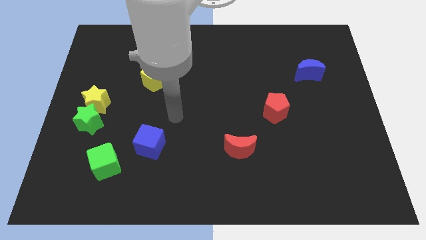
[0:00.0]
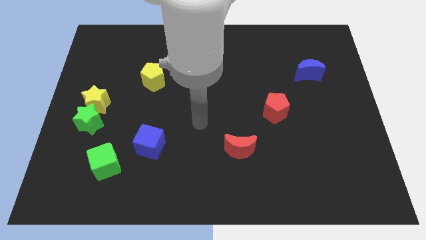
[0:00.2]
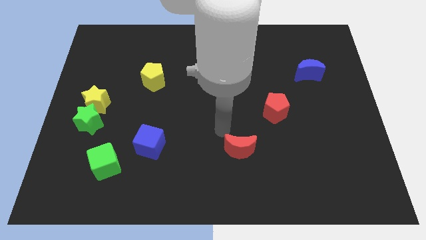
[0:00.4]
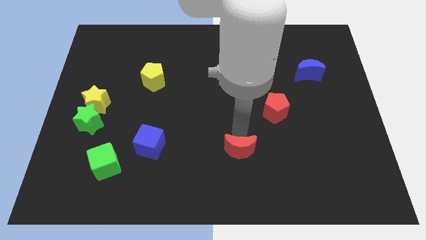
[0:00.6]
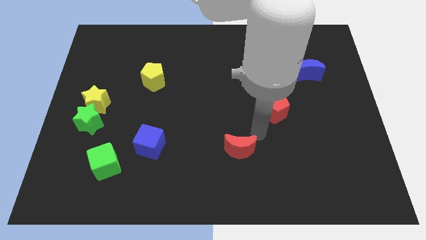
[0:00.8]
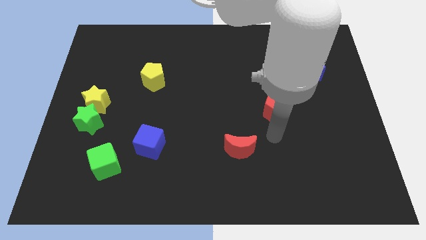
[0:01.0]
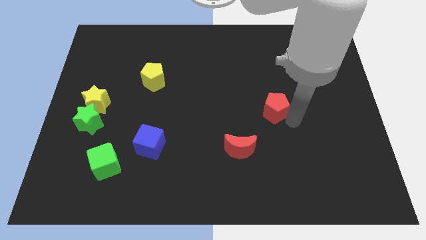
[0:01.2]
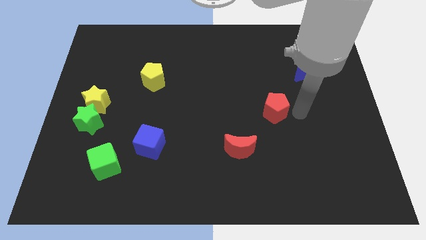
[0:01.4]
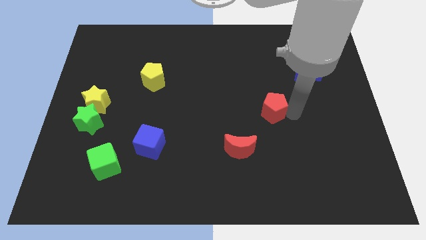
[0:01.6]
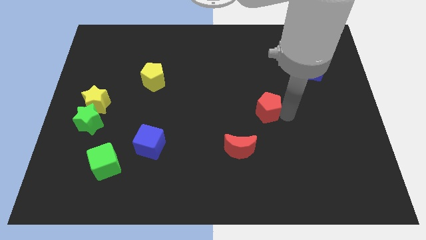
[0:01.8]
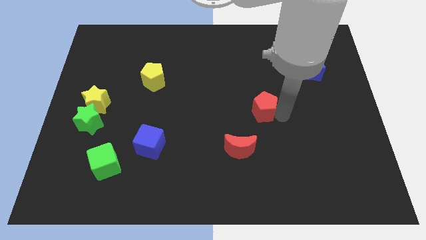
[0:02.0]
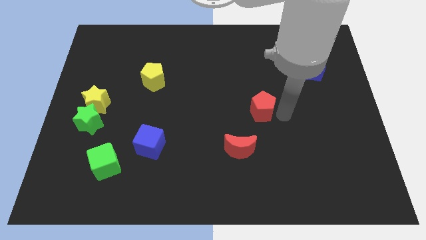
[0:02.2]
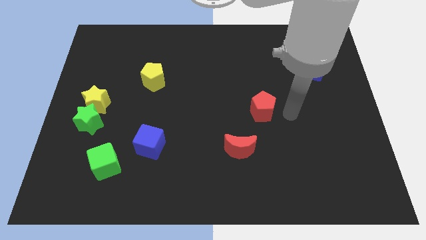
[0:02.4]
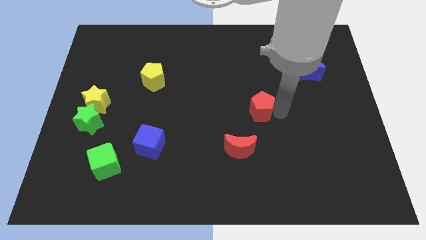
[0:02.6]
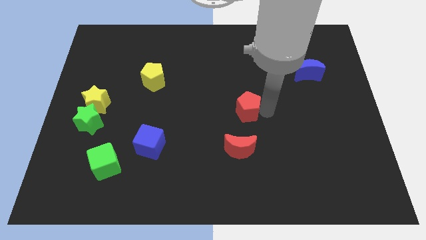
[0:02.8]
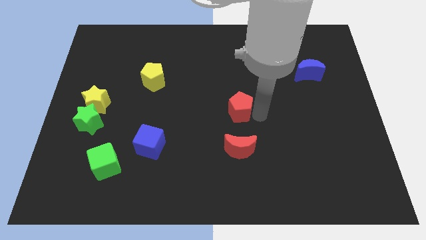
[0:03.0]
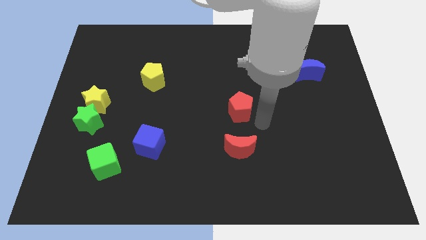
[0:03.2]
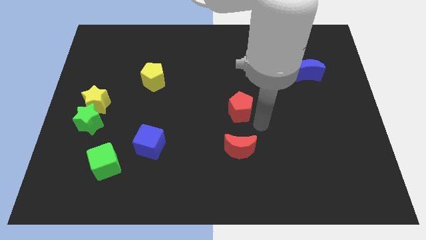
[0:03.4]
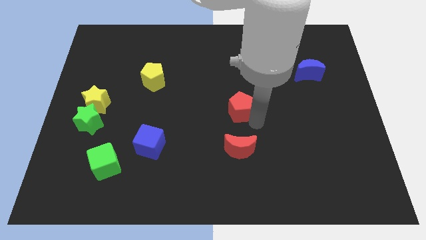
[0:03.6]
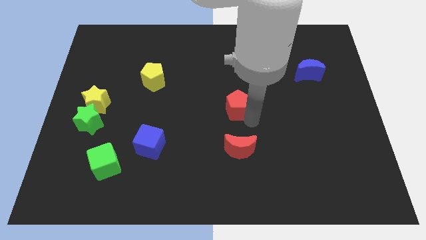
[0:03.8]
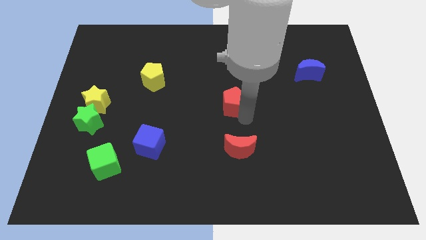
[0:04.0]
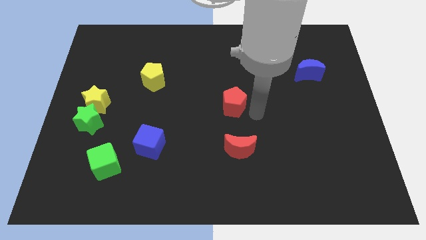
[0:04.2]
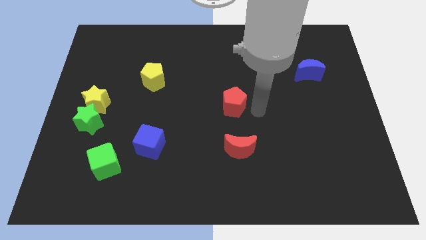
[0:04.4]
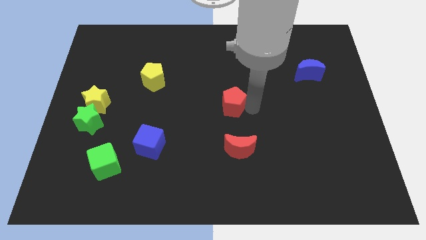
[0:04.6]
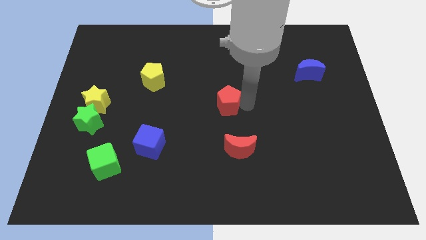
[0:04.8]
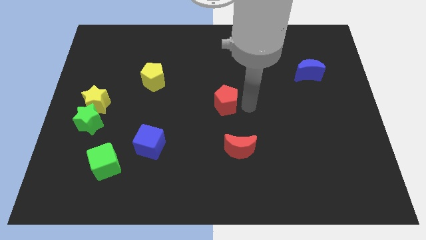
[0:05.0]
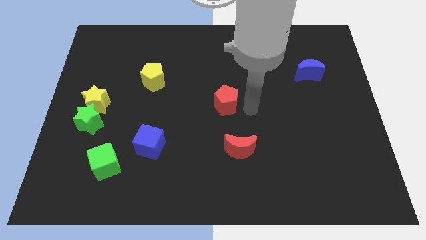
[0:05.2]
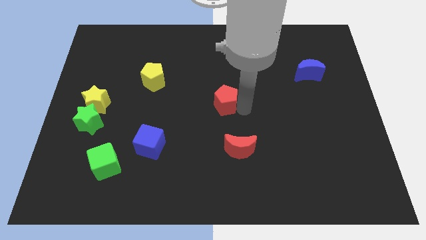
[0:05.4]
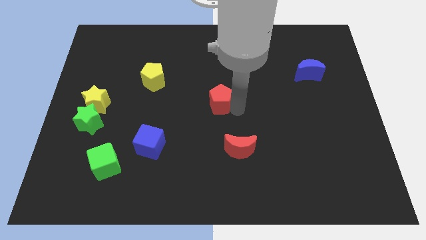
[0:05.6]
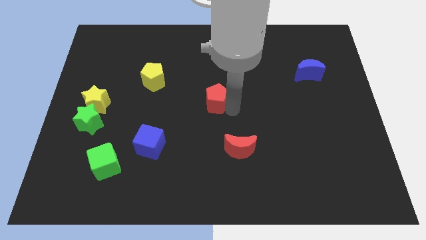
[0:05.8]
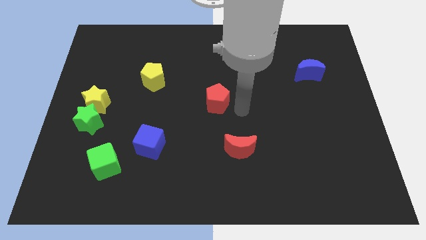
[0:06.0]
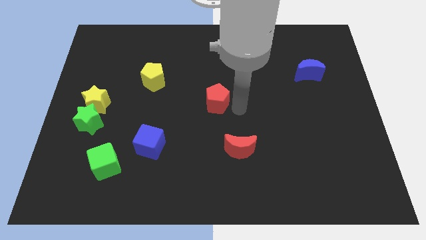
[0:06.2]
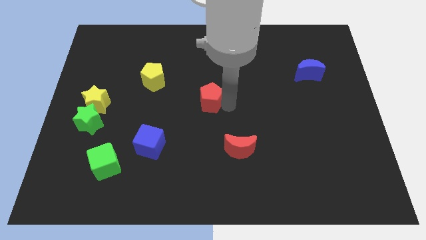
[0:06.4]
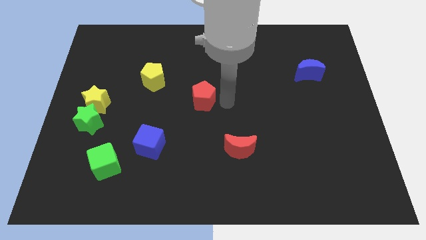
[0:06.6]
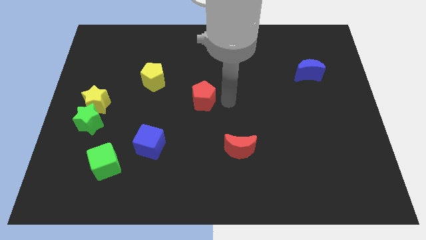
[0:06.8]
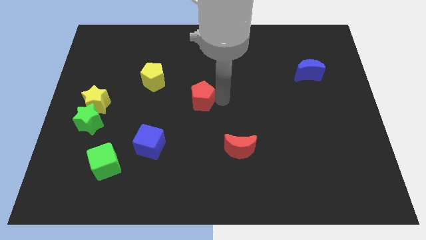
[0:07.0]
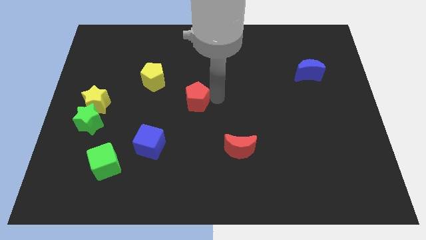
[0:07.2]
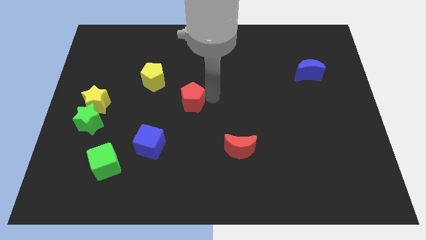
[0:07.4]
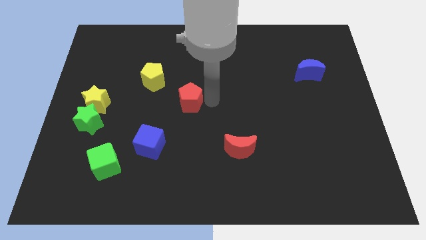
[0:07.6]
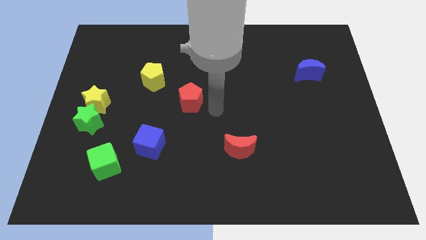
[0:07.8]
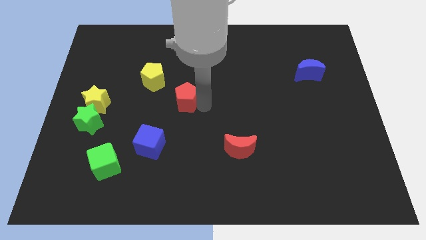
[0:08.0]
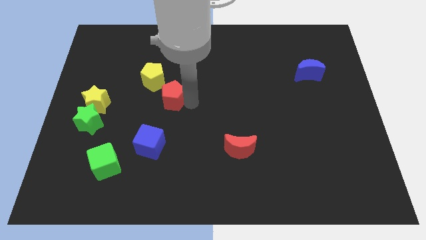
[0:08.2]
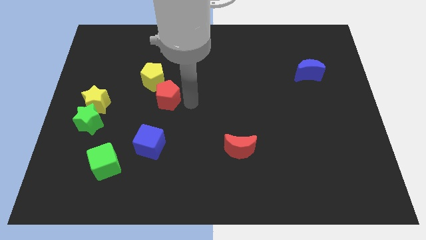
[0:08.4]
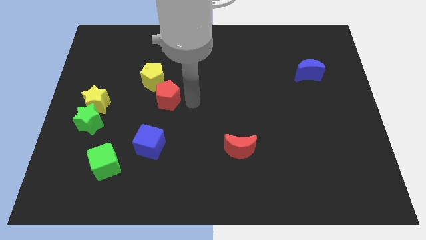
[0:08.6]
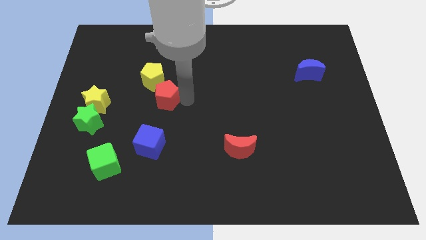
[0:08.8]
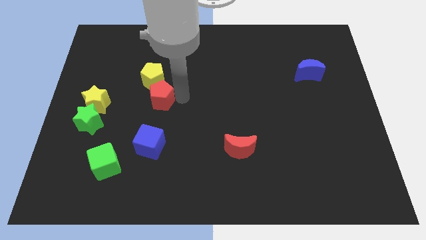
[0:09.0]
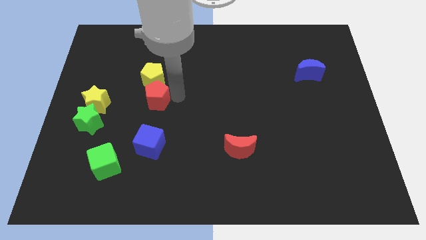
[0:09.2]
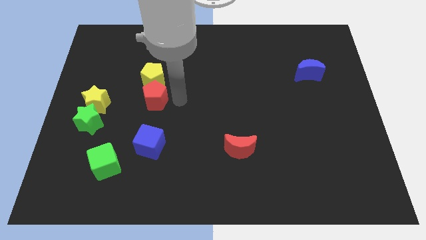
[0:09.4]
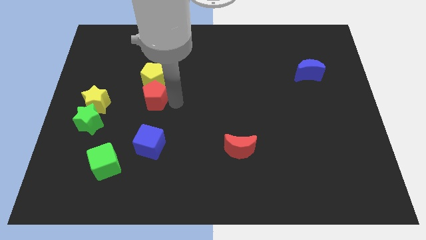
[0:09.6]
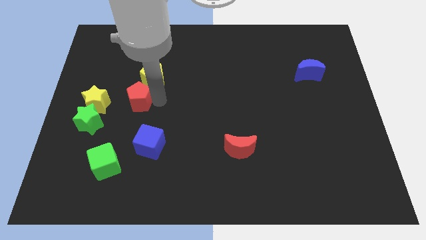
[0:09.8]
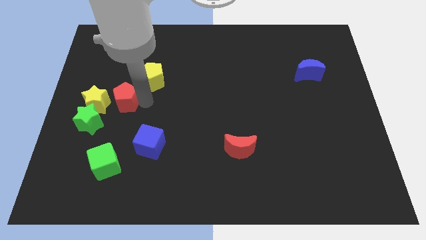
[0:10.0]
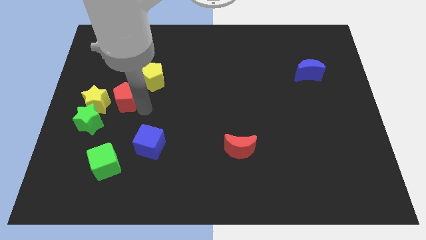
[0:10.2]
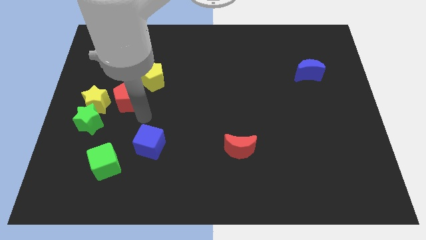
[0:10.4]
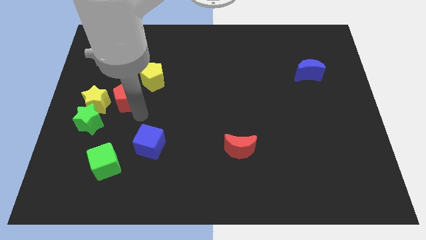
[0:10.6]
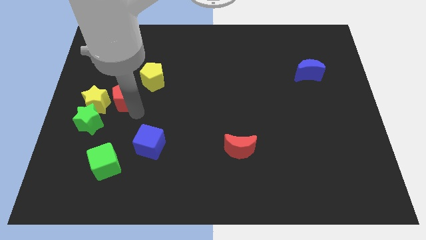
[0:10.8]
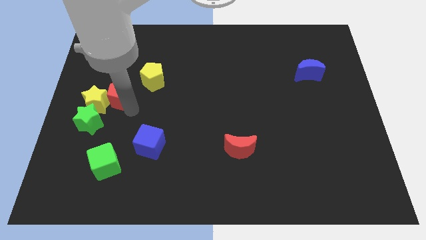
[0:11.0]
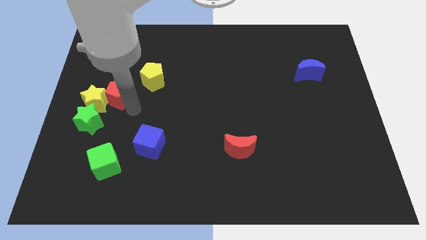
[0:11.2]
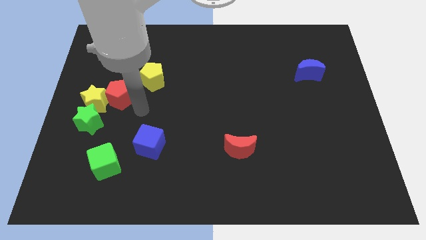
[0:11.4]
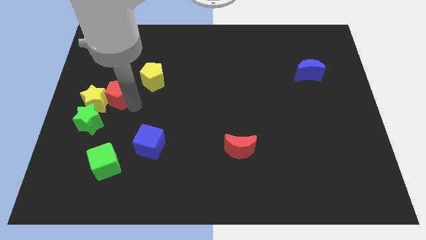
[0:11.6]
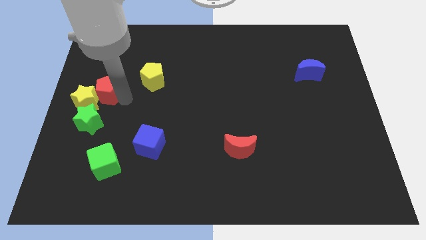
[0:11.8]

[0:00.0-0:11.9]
slide the red pentagon to the center left

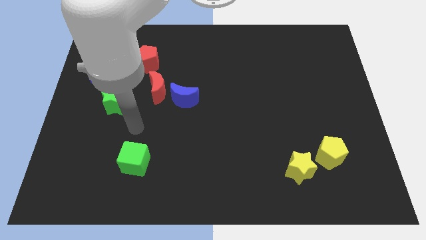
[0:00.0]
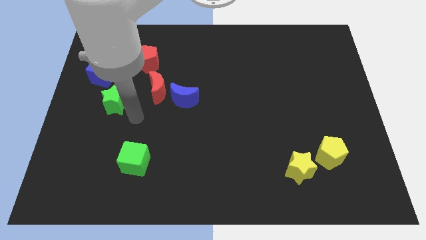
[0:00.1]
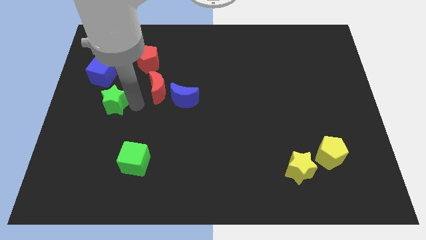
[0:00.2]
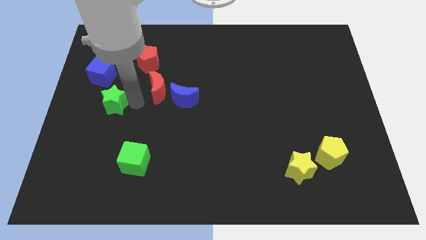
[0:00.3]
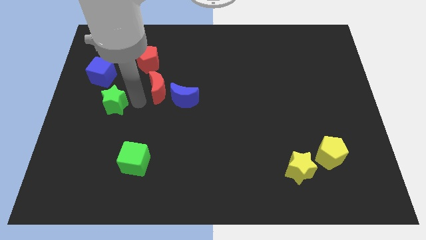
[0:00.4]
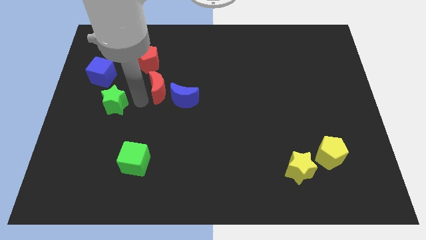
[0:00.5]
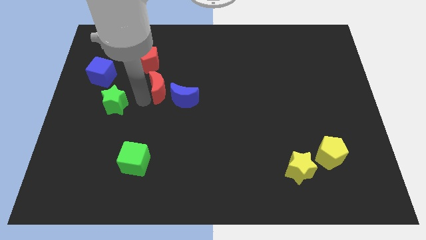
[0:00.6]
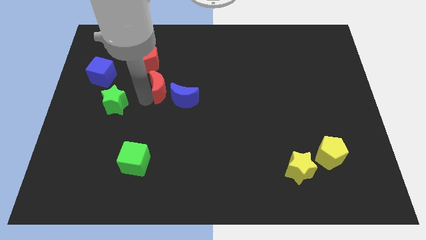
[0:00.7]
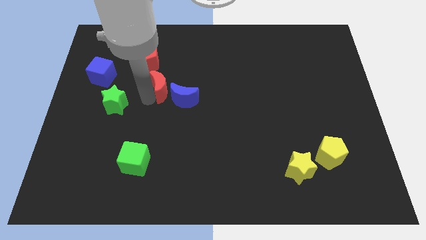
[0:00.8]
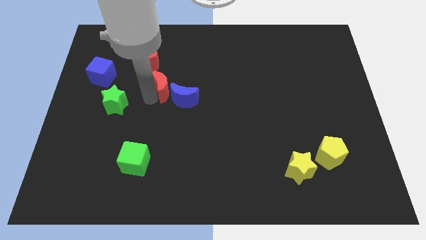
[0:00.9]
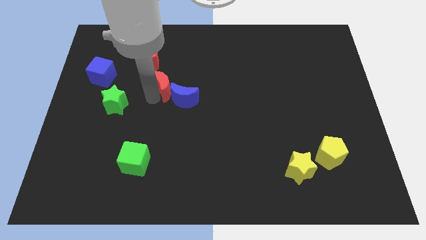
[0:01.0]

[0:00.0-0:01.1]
put the red moon to the middle of the board
